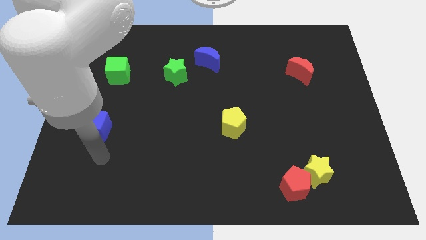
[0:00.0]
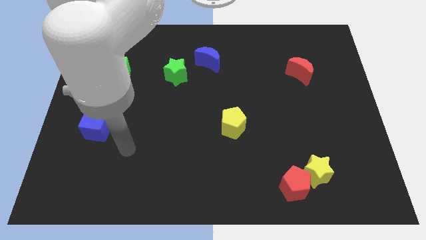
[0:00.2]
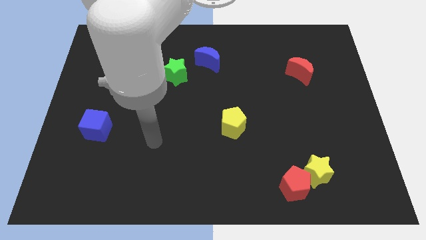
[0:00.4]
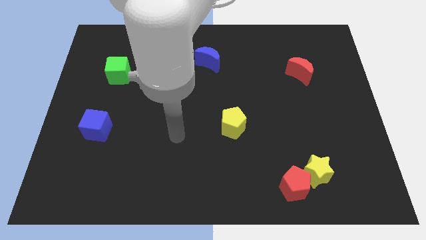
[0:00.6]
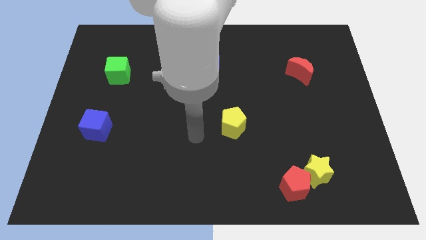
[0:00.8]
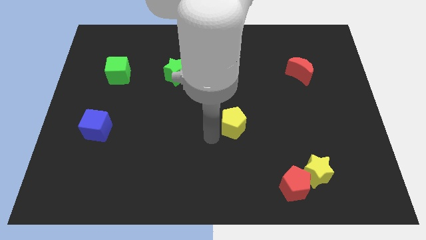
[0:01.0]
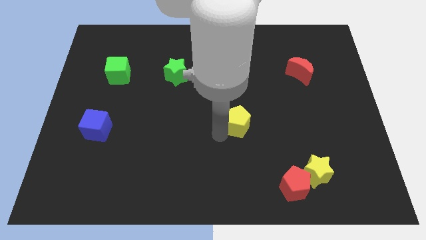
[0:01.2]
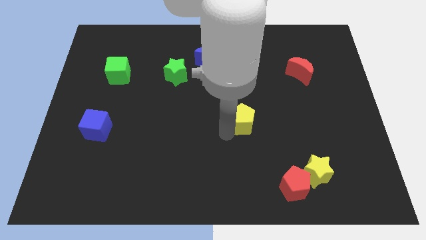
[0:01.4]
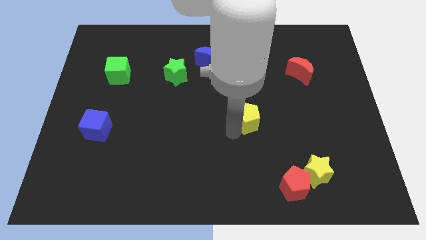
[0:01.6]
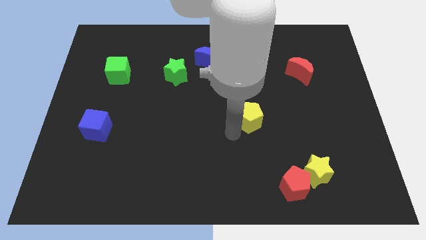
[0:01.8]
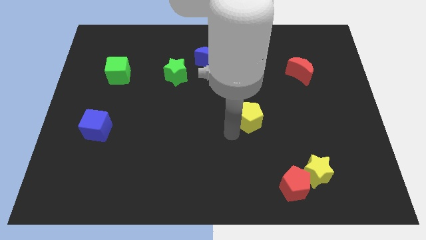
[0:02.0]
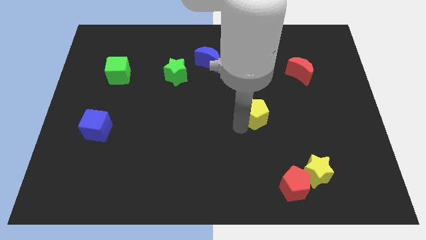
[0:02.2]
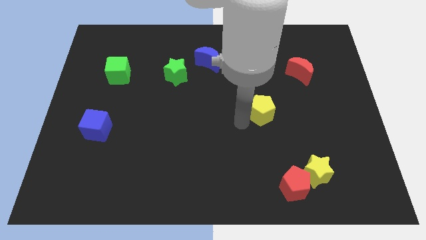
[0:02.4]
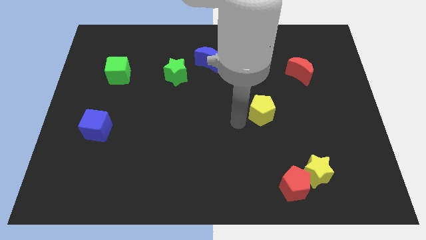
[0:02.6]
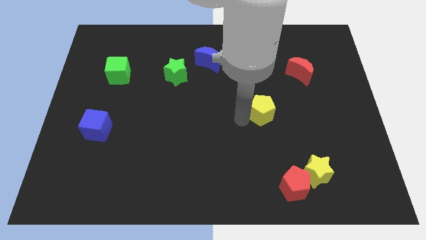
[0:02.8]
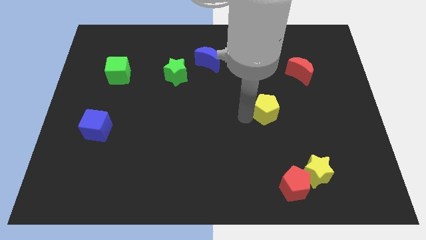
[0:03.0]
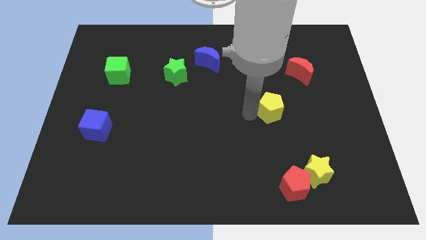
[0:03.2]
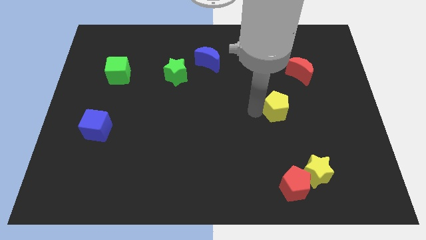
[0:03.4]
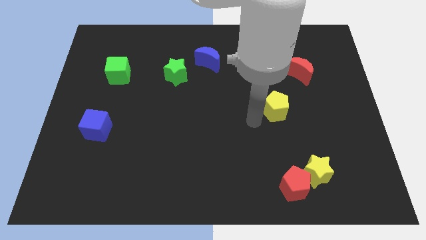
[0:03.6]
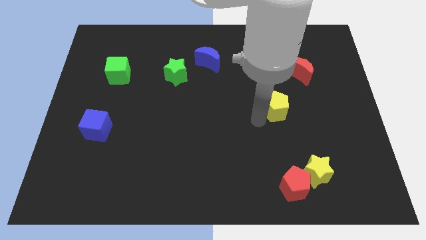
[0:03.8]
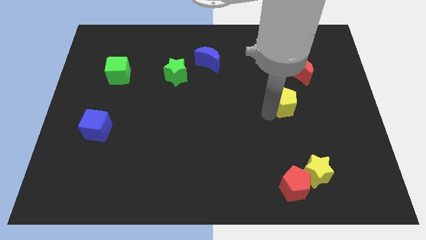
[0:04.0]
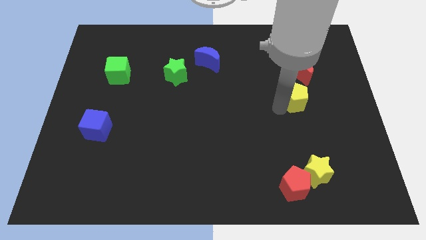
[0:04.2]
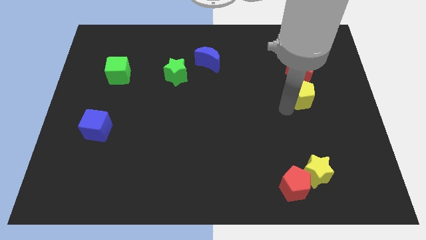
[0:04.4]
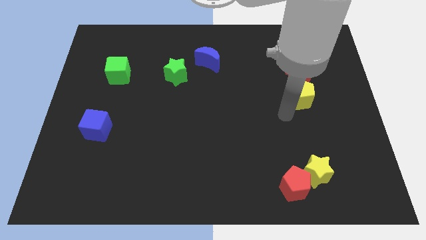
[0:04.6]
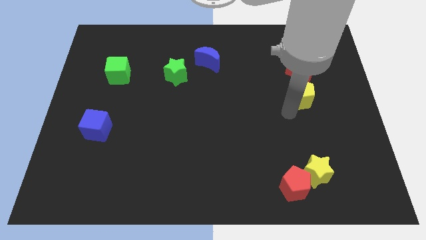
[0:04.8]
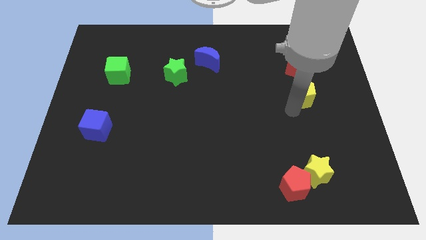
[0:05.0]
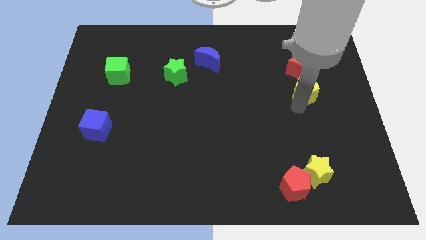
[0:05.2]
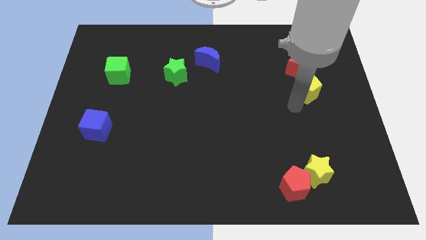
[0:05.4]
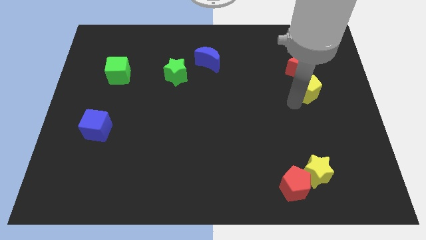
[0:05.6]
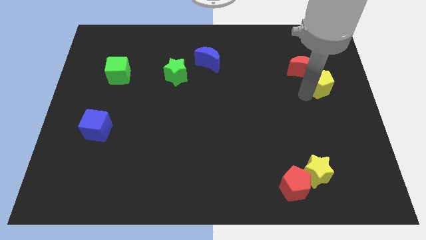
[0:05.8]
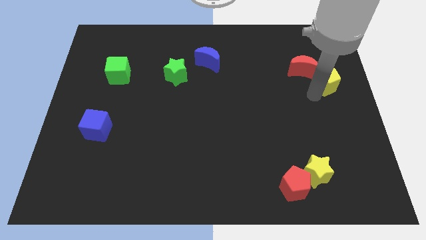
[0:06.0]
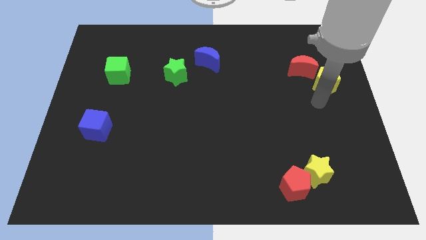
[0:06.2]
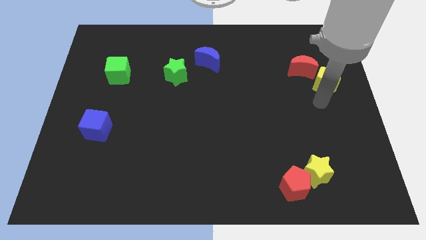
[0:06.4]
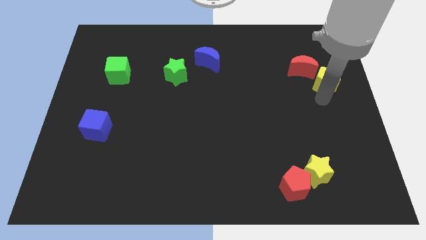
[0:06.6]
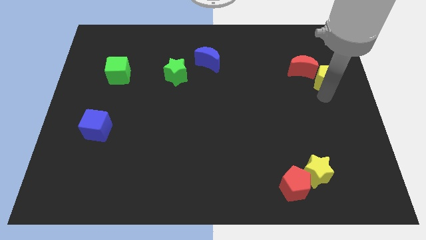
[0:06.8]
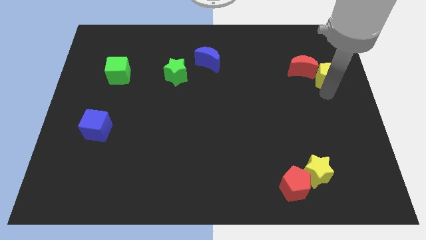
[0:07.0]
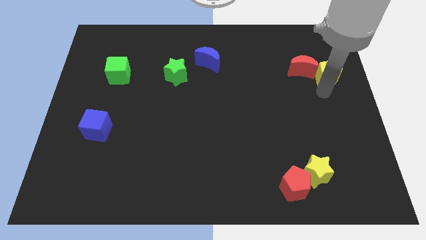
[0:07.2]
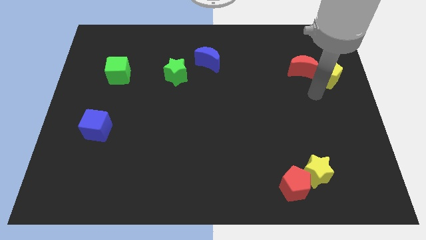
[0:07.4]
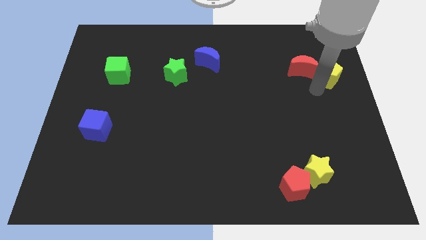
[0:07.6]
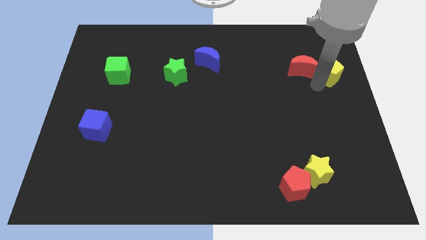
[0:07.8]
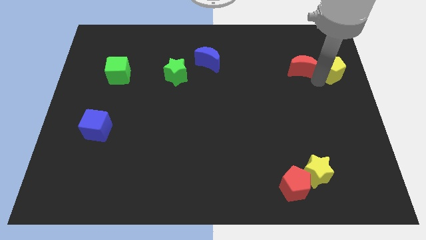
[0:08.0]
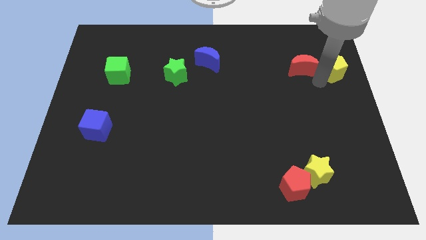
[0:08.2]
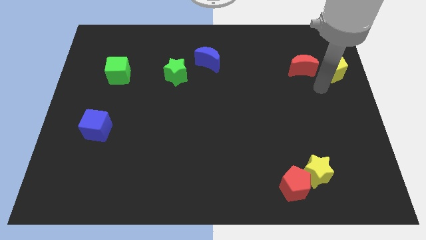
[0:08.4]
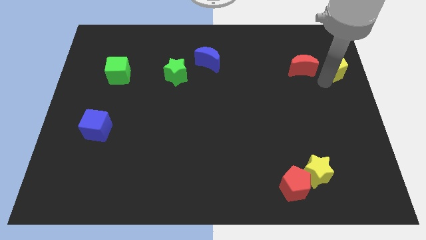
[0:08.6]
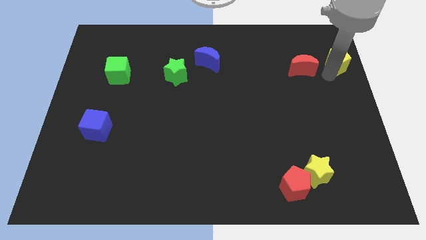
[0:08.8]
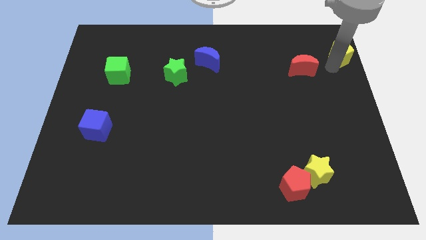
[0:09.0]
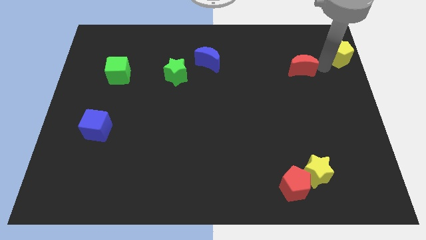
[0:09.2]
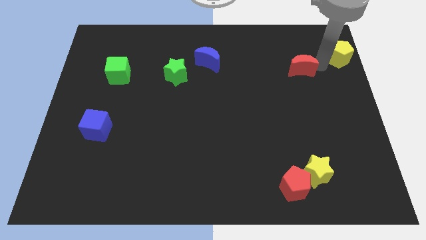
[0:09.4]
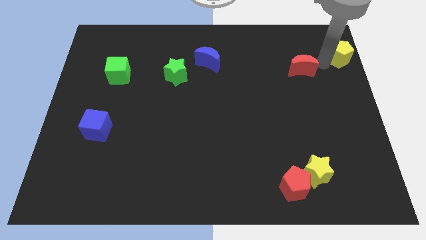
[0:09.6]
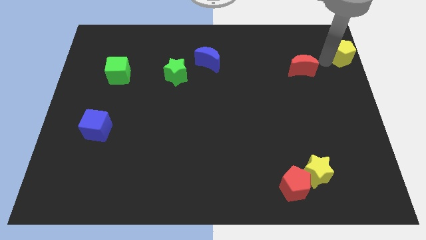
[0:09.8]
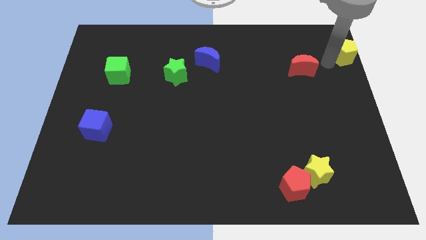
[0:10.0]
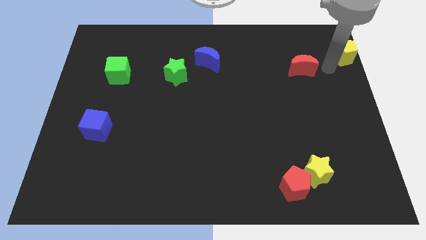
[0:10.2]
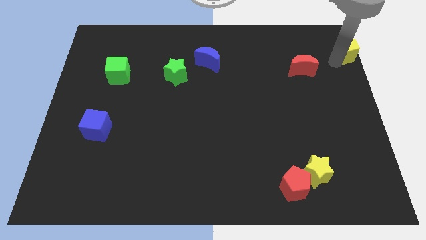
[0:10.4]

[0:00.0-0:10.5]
slide the yellow pentagon to the upper right corner

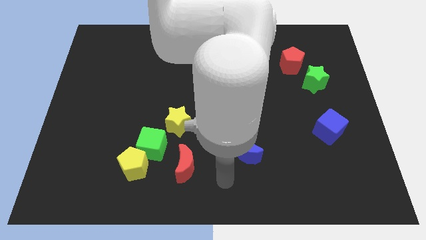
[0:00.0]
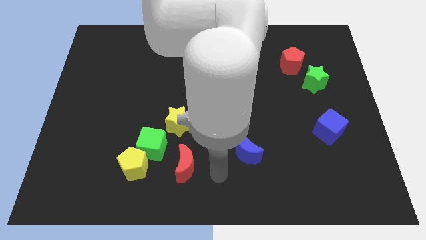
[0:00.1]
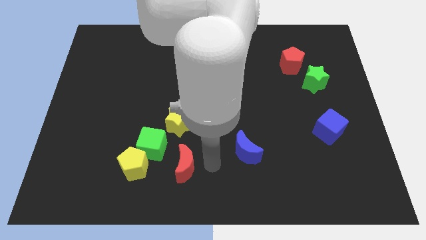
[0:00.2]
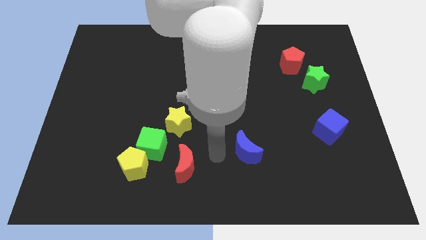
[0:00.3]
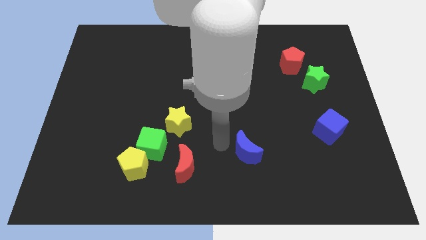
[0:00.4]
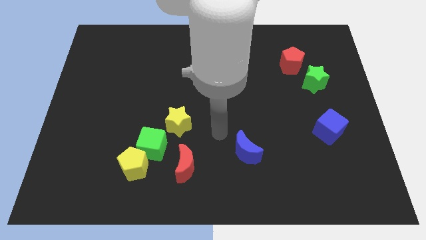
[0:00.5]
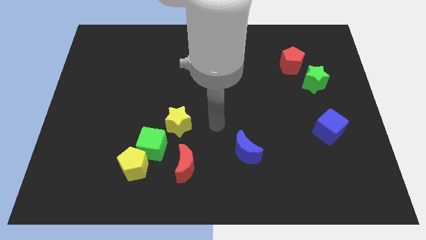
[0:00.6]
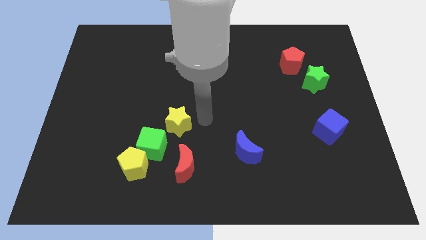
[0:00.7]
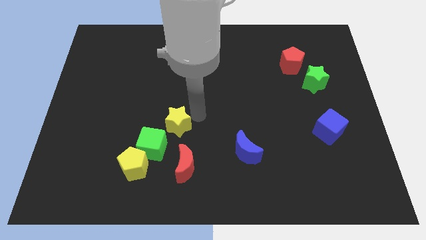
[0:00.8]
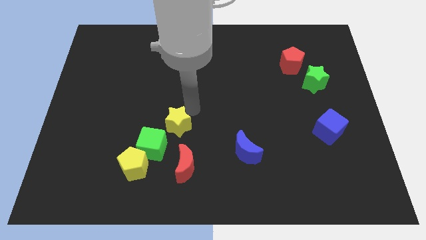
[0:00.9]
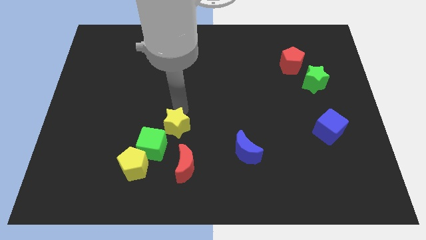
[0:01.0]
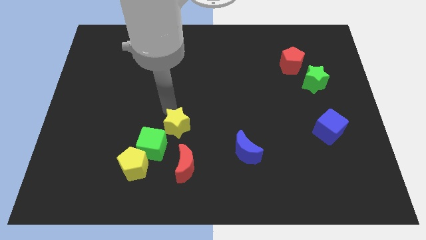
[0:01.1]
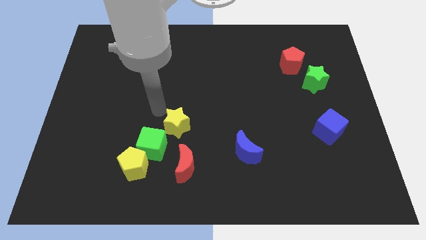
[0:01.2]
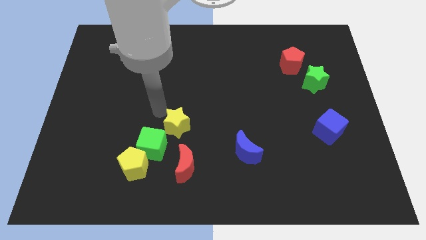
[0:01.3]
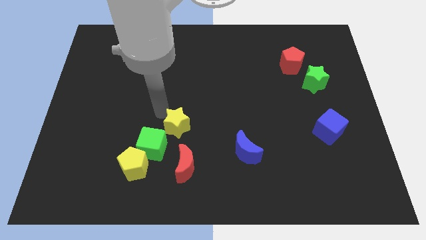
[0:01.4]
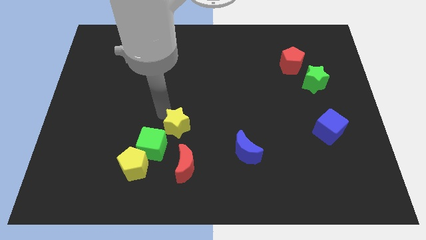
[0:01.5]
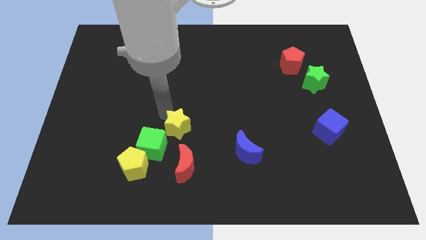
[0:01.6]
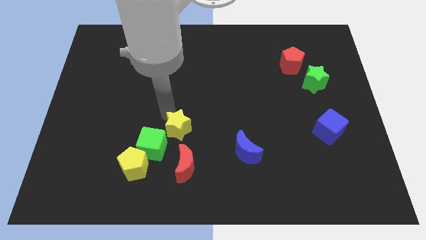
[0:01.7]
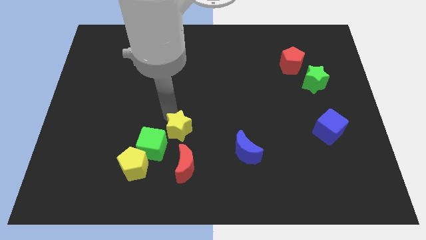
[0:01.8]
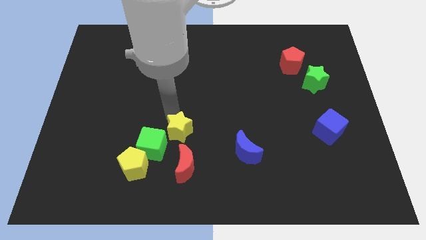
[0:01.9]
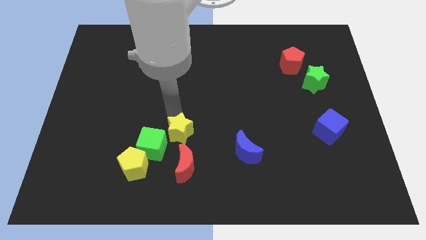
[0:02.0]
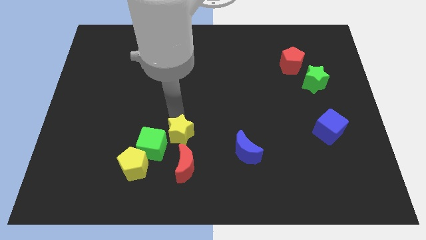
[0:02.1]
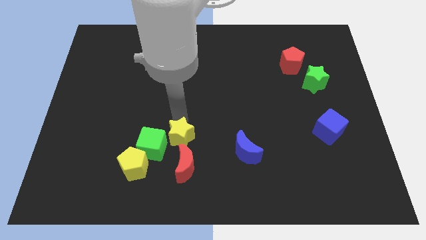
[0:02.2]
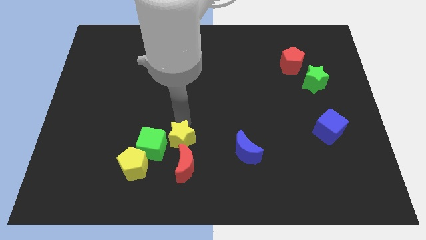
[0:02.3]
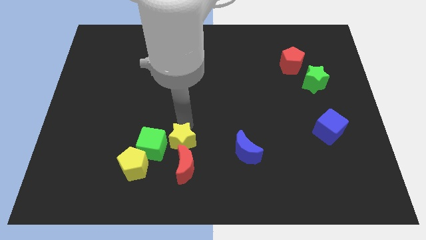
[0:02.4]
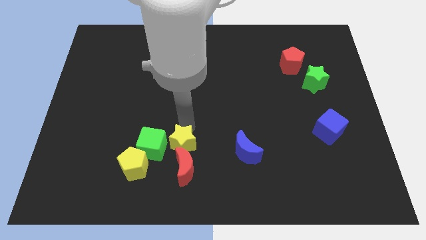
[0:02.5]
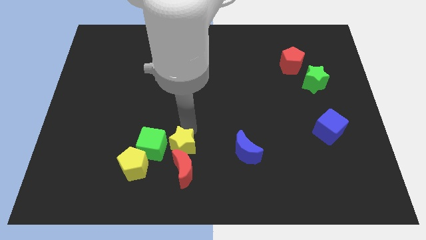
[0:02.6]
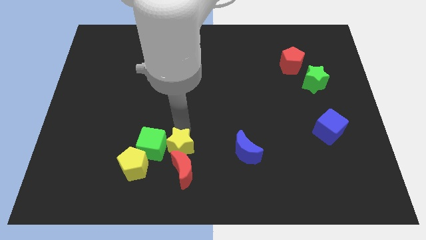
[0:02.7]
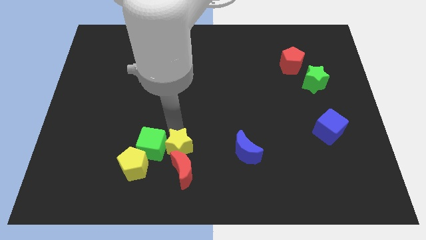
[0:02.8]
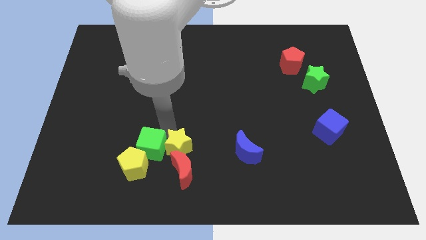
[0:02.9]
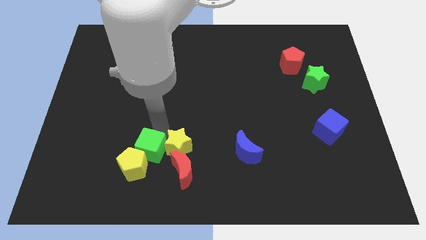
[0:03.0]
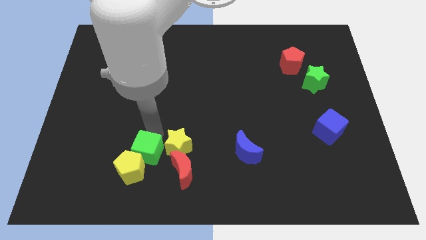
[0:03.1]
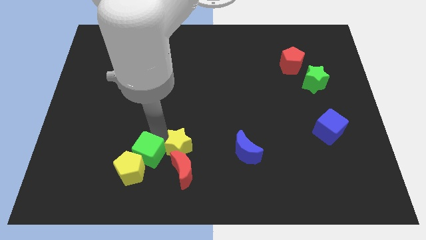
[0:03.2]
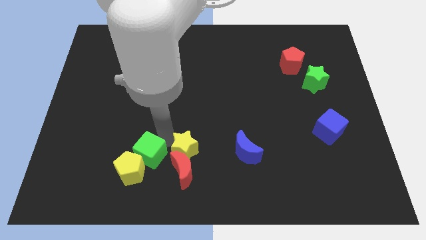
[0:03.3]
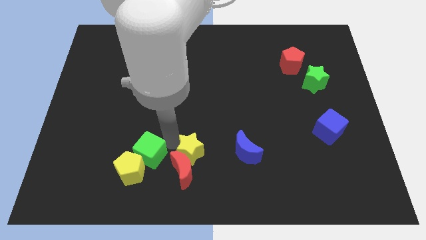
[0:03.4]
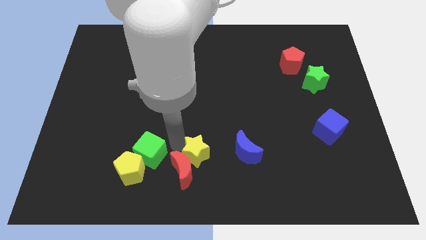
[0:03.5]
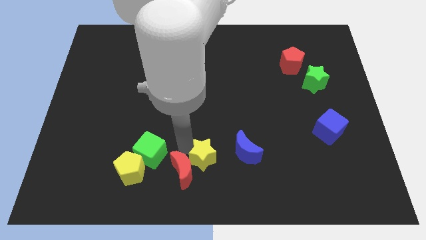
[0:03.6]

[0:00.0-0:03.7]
push the yellow star to the bottom side
